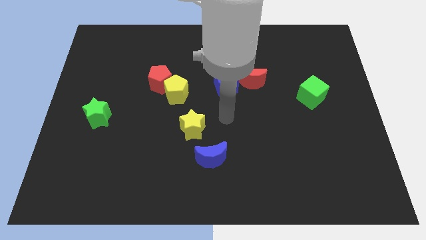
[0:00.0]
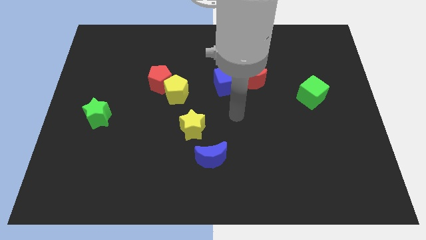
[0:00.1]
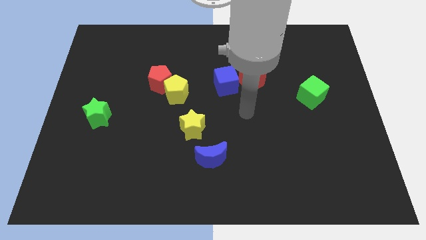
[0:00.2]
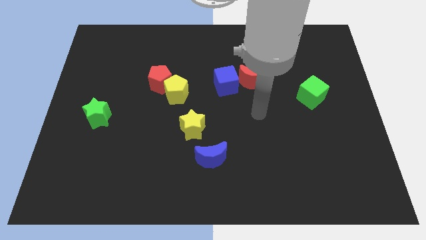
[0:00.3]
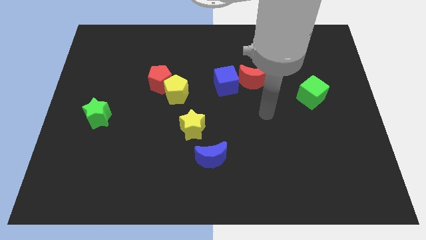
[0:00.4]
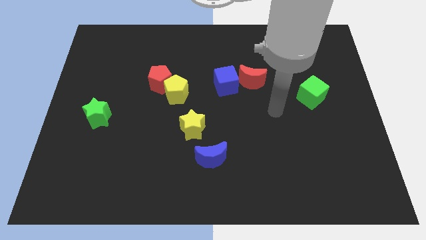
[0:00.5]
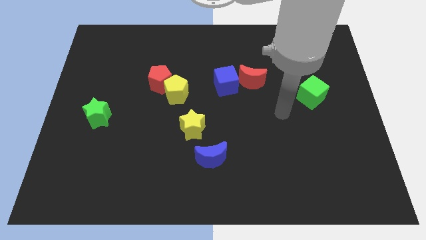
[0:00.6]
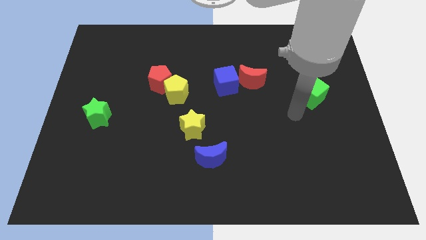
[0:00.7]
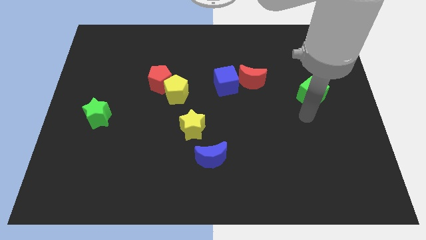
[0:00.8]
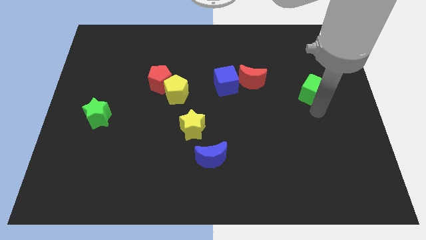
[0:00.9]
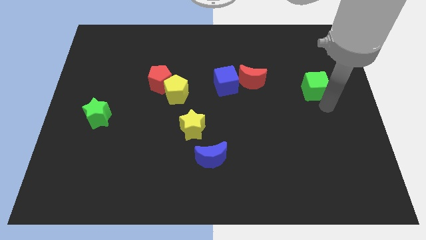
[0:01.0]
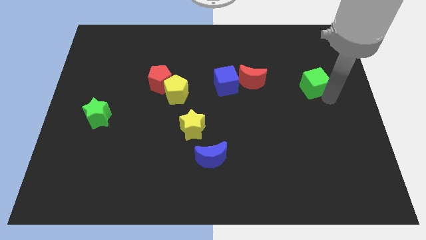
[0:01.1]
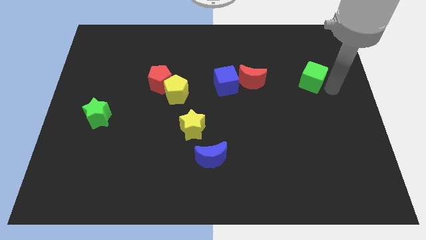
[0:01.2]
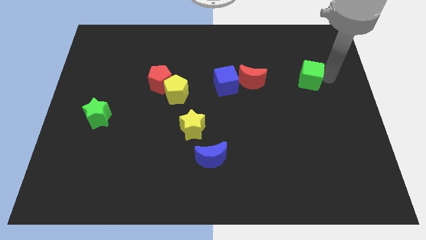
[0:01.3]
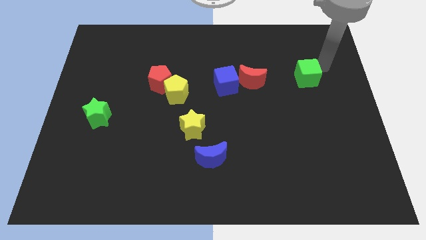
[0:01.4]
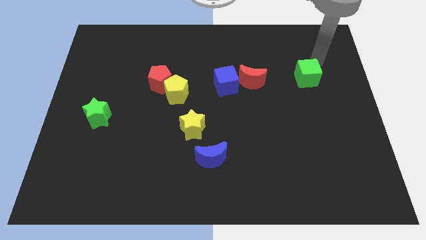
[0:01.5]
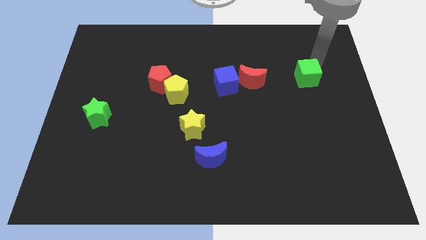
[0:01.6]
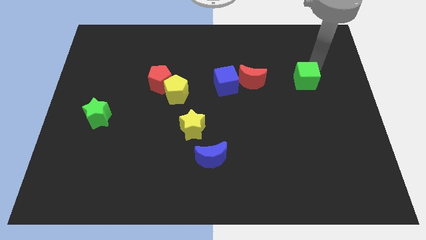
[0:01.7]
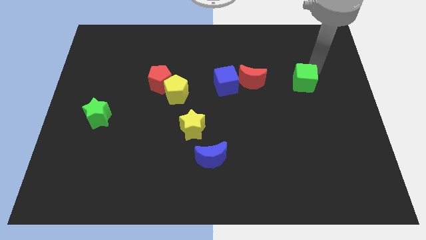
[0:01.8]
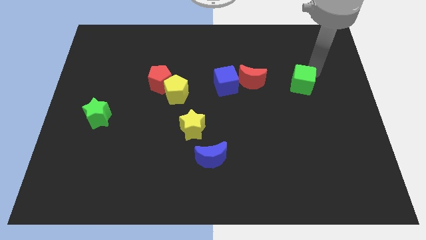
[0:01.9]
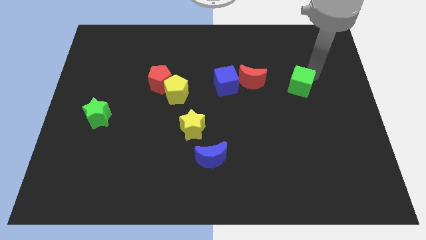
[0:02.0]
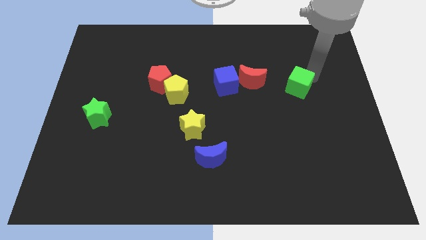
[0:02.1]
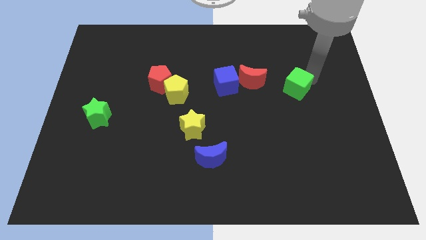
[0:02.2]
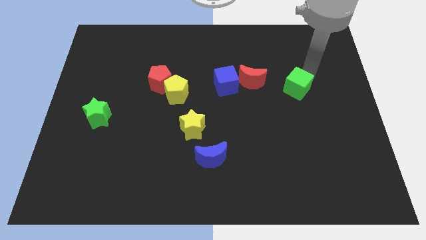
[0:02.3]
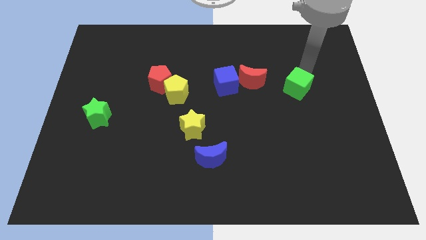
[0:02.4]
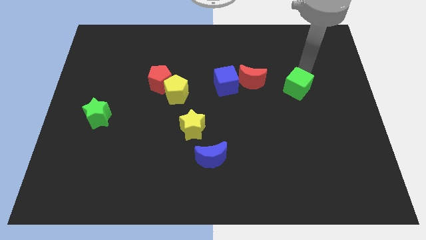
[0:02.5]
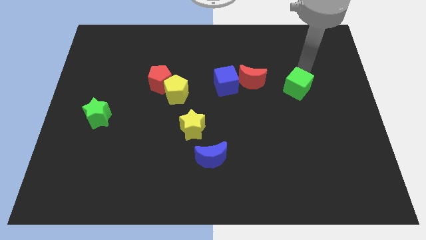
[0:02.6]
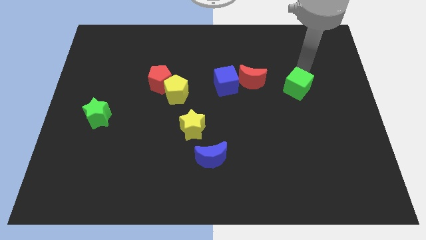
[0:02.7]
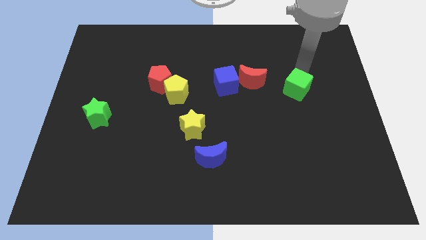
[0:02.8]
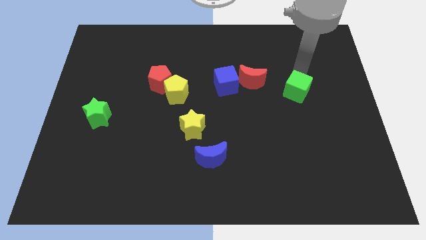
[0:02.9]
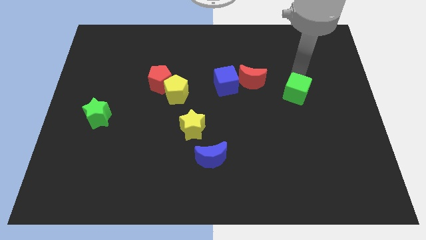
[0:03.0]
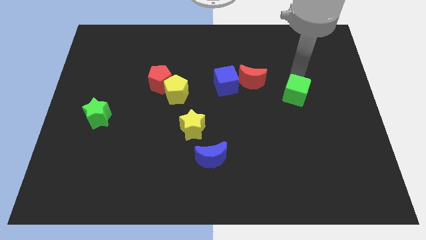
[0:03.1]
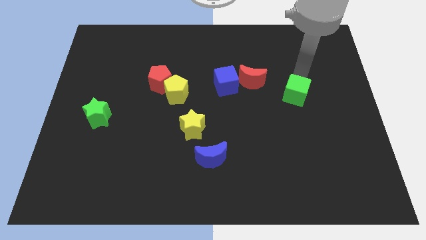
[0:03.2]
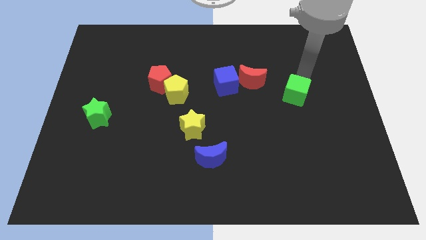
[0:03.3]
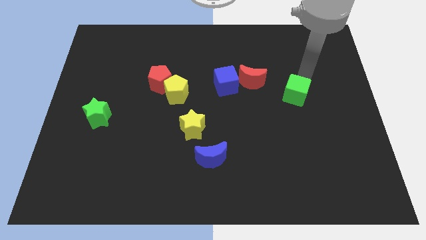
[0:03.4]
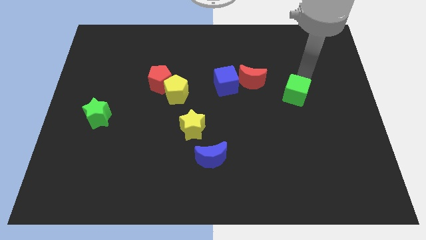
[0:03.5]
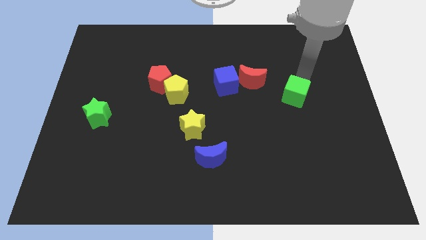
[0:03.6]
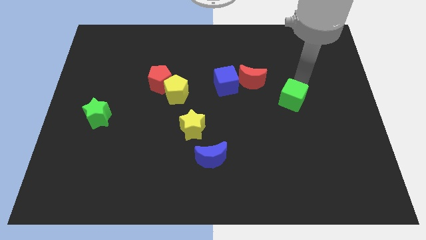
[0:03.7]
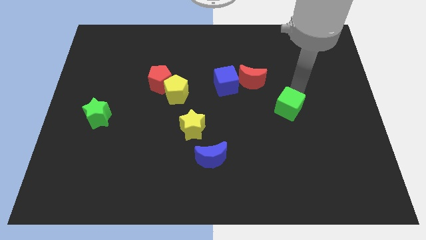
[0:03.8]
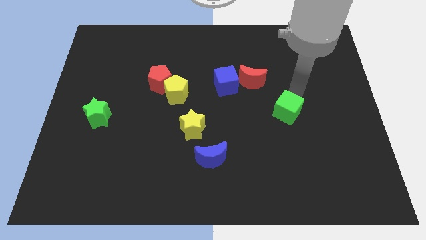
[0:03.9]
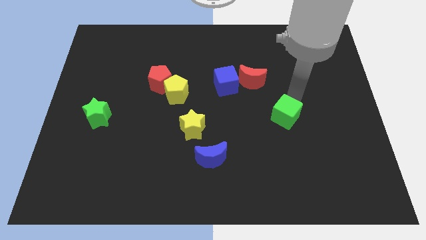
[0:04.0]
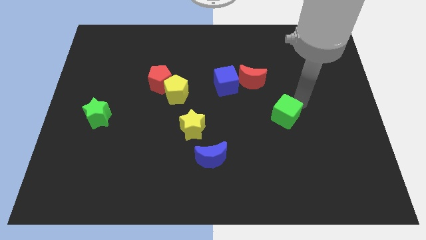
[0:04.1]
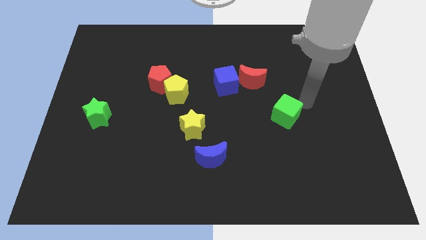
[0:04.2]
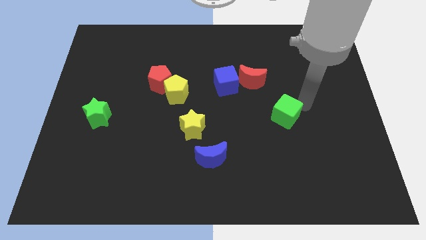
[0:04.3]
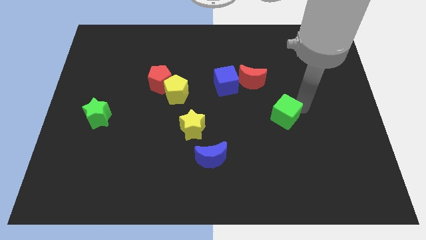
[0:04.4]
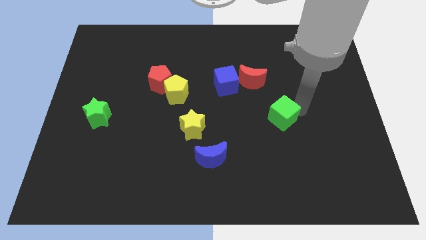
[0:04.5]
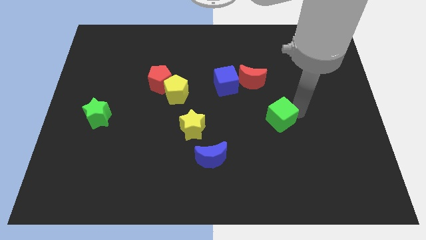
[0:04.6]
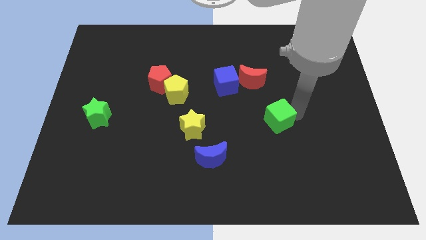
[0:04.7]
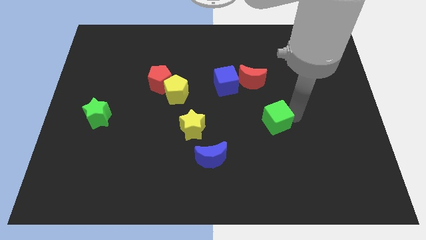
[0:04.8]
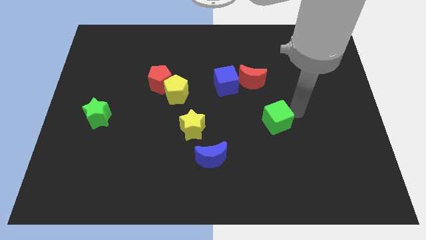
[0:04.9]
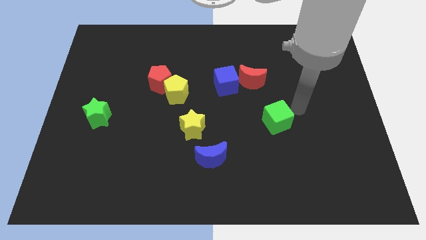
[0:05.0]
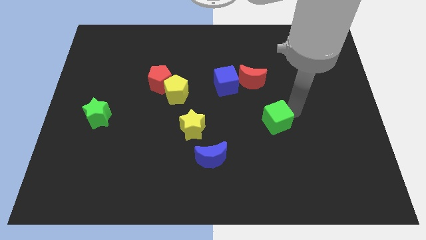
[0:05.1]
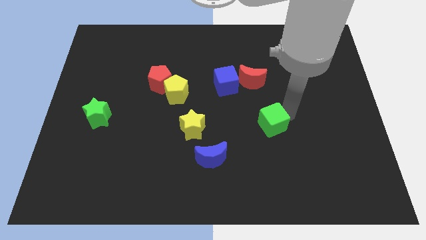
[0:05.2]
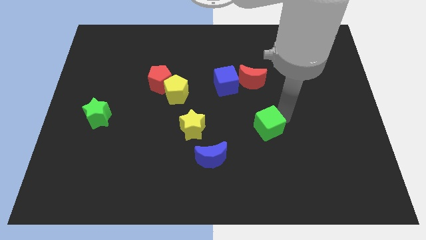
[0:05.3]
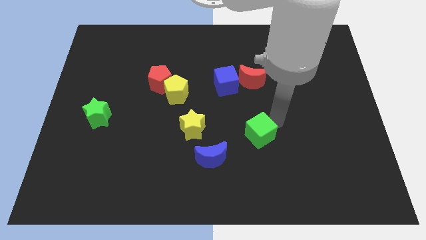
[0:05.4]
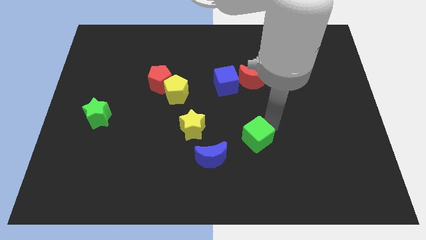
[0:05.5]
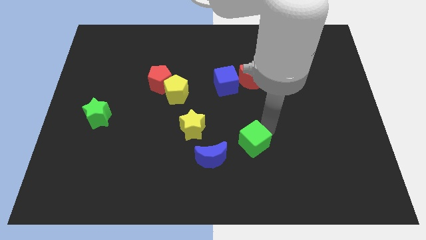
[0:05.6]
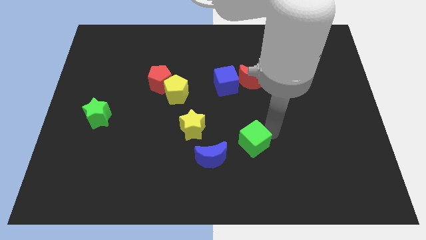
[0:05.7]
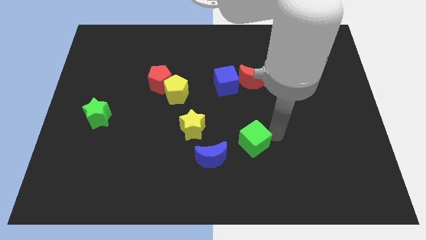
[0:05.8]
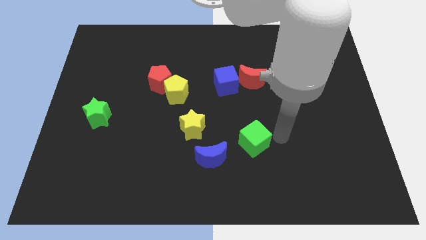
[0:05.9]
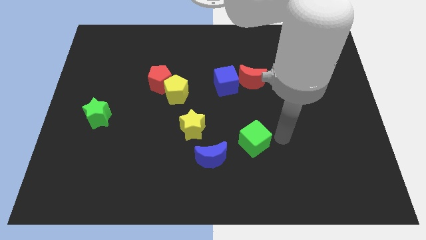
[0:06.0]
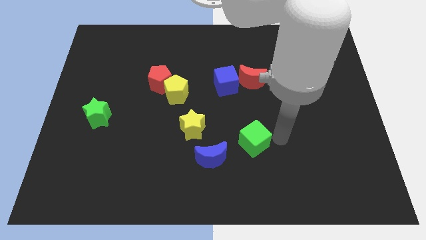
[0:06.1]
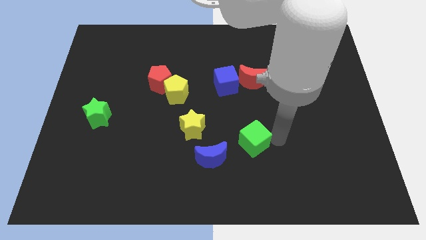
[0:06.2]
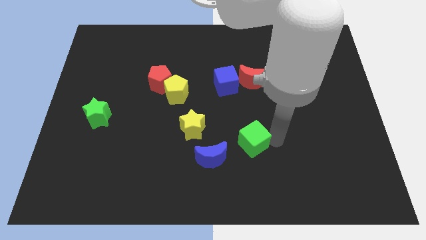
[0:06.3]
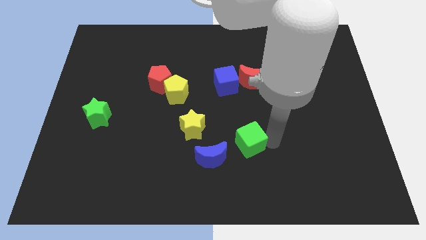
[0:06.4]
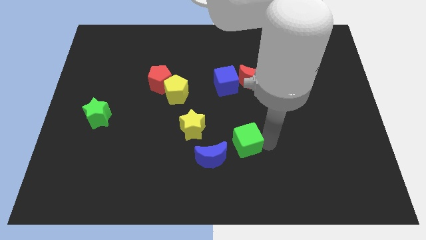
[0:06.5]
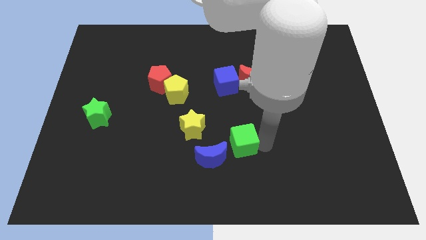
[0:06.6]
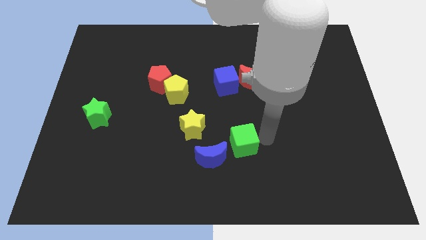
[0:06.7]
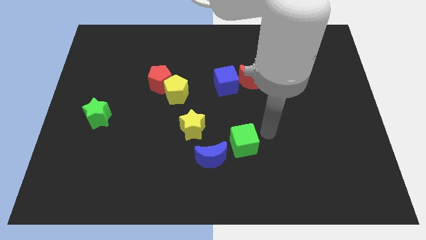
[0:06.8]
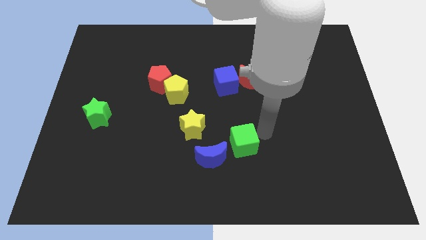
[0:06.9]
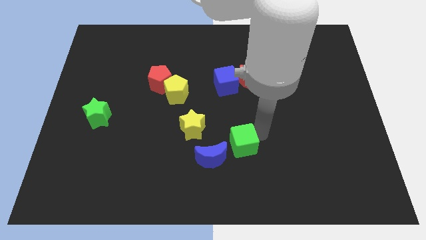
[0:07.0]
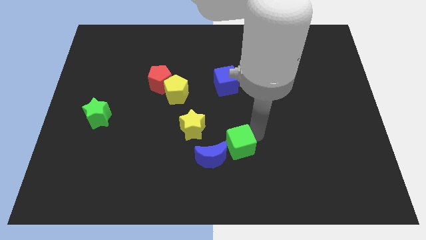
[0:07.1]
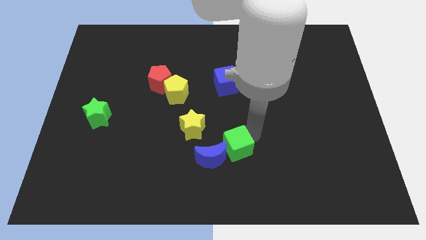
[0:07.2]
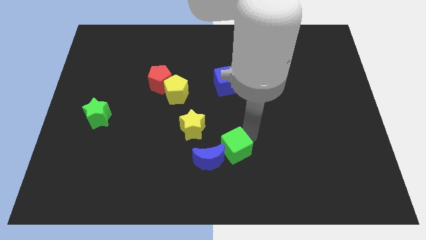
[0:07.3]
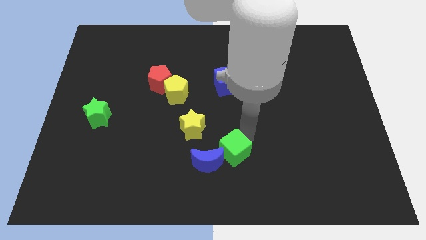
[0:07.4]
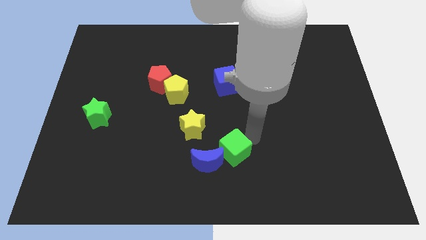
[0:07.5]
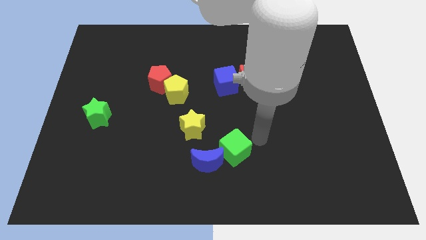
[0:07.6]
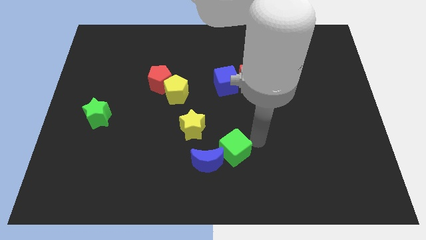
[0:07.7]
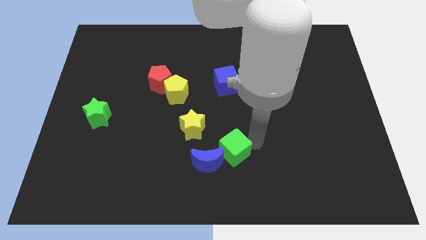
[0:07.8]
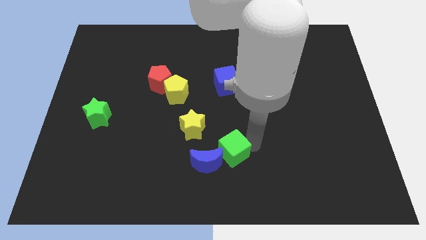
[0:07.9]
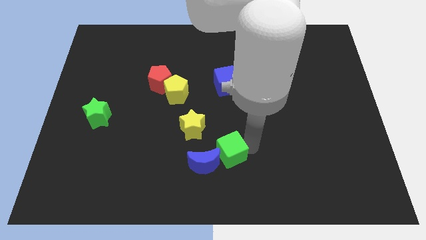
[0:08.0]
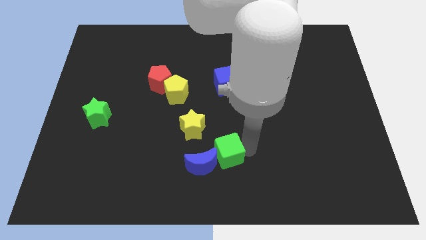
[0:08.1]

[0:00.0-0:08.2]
push the green cube next to the blue moon
